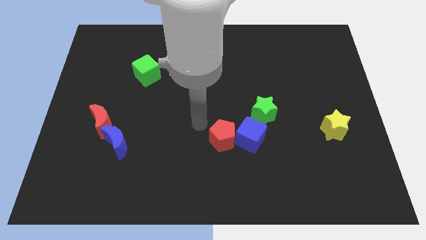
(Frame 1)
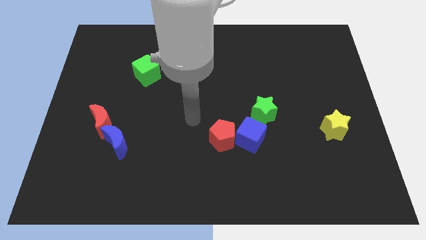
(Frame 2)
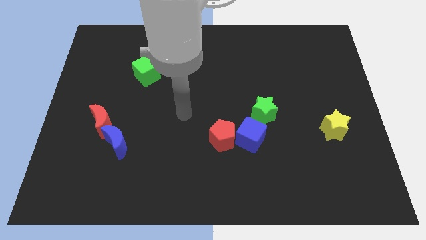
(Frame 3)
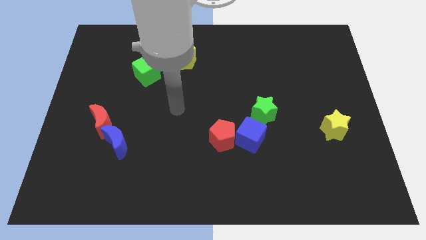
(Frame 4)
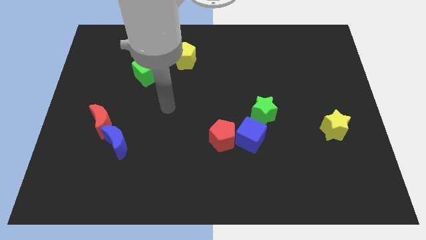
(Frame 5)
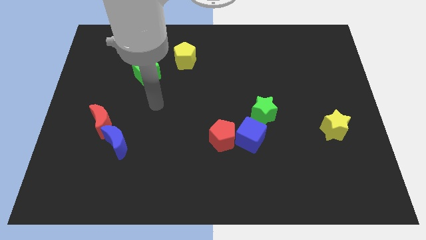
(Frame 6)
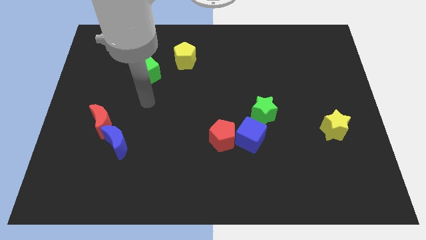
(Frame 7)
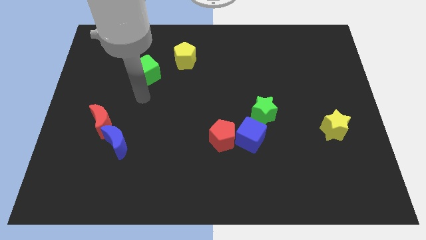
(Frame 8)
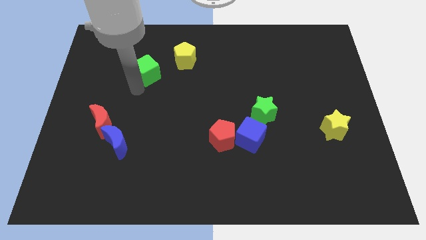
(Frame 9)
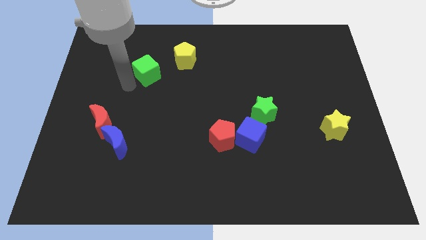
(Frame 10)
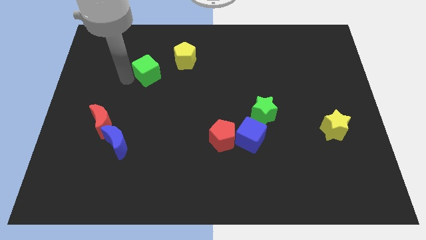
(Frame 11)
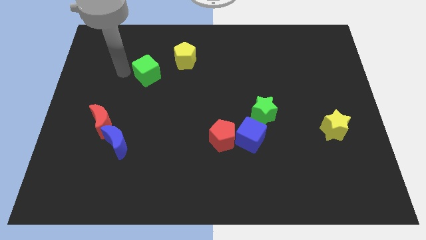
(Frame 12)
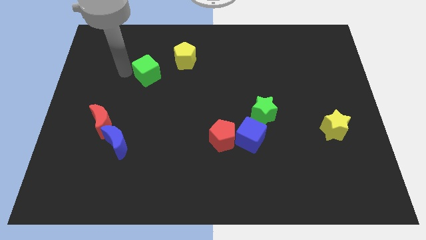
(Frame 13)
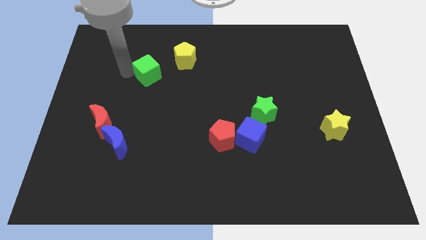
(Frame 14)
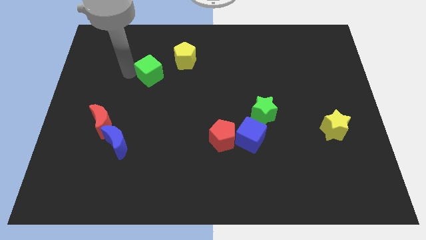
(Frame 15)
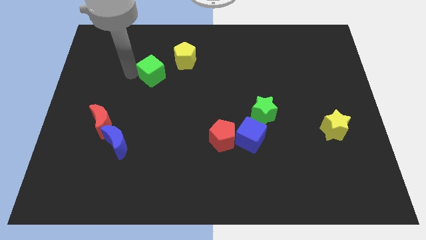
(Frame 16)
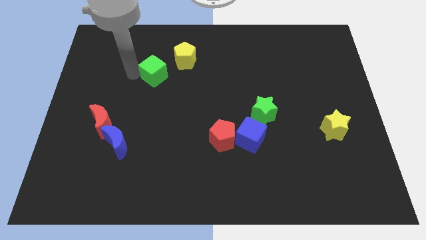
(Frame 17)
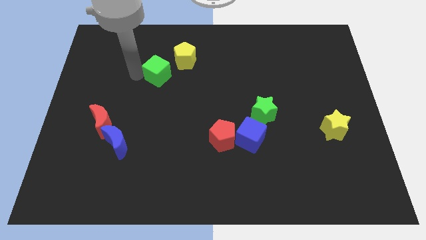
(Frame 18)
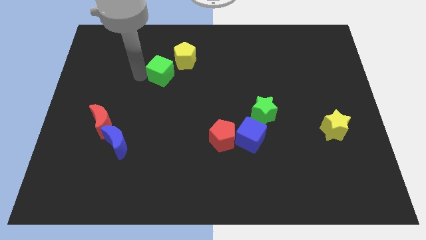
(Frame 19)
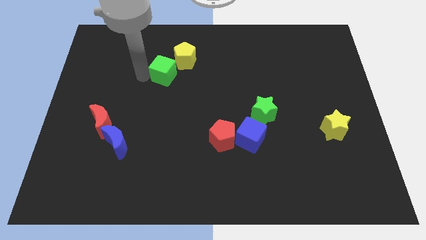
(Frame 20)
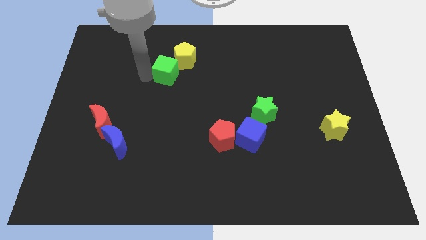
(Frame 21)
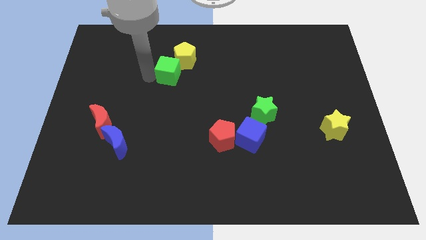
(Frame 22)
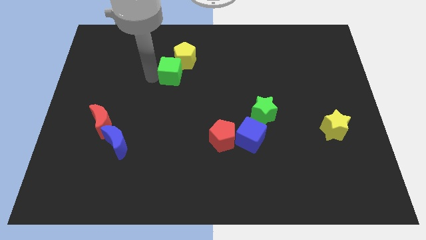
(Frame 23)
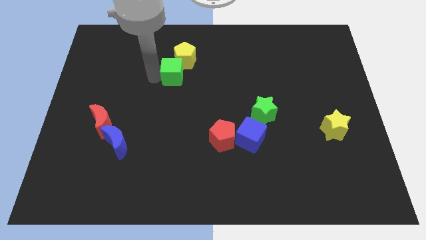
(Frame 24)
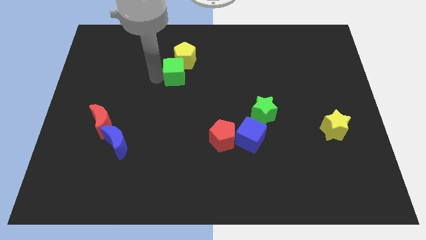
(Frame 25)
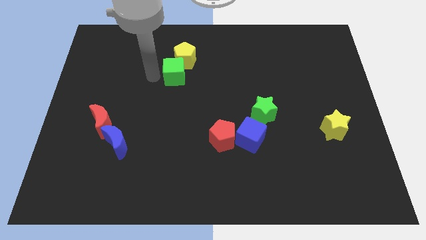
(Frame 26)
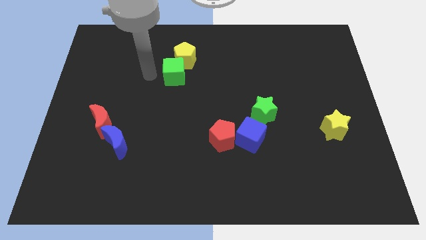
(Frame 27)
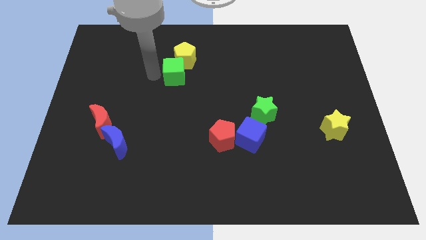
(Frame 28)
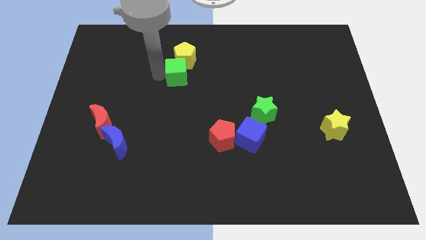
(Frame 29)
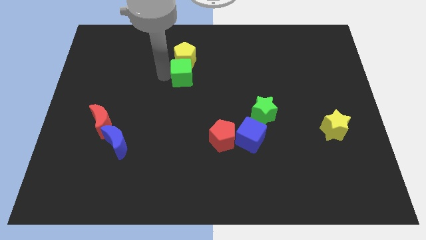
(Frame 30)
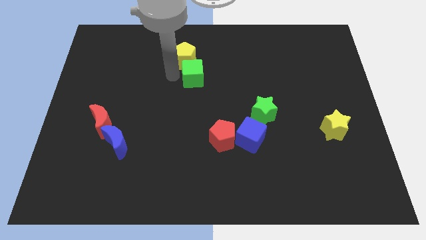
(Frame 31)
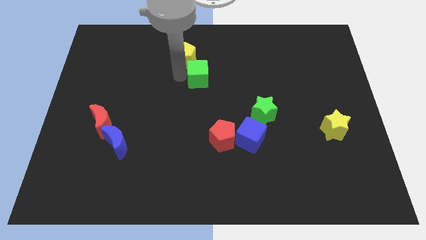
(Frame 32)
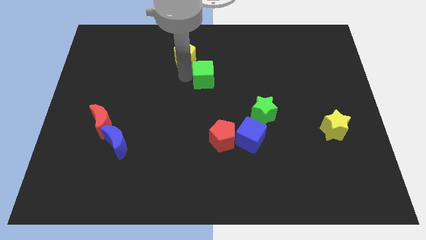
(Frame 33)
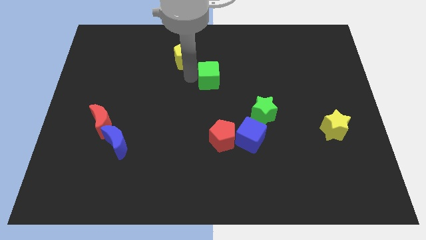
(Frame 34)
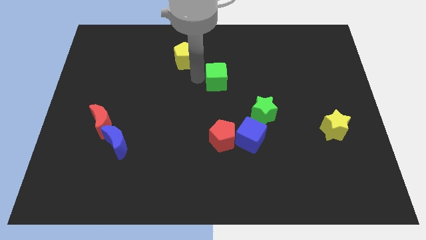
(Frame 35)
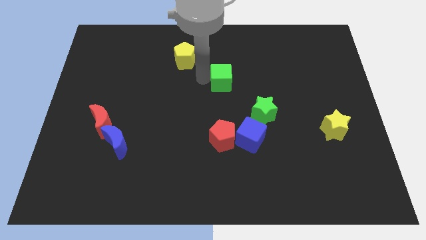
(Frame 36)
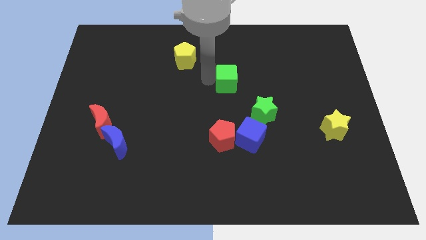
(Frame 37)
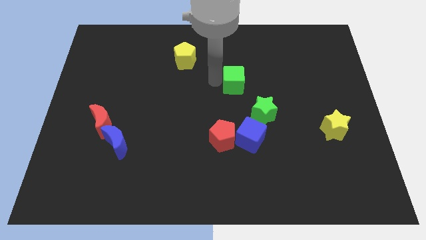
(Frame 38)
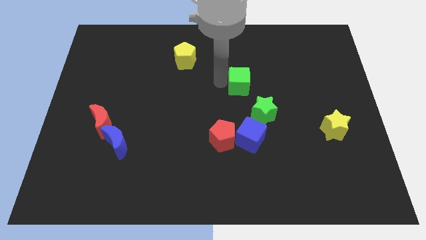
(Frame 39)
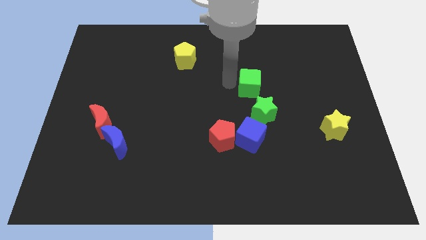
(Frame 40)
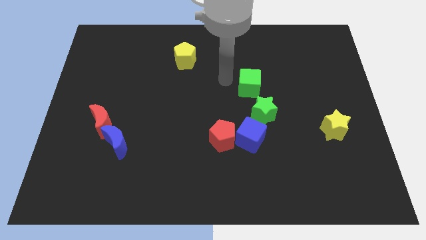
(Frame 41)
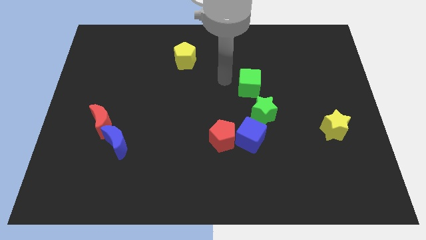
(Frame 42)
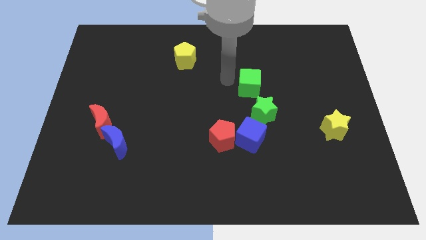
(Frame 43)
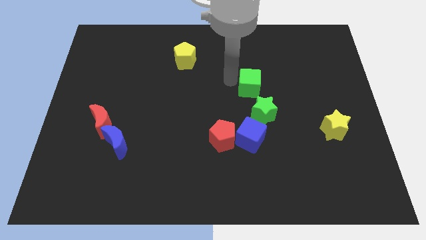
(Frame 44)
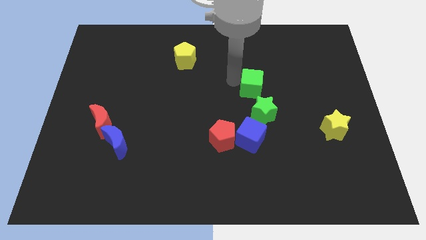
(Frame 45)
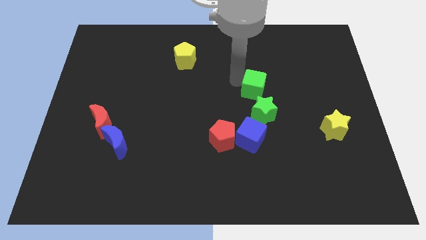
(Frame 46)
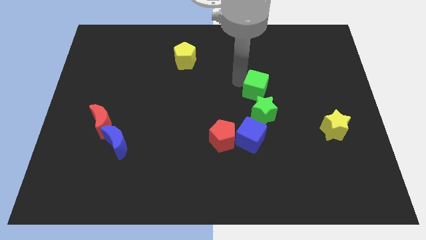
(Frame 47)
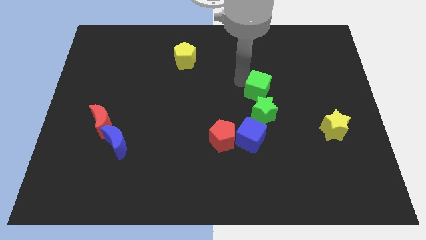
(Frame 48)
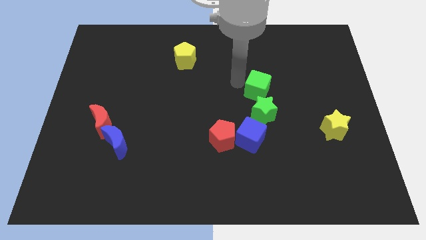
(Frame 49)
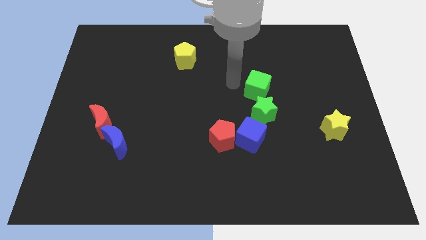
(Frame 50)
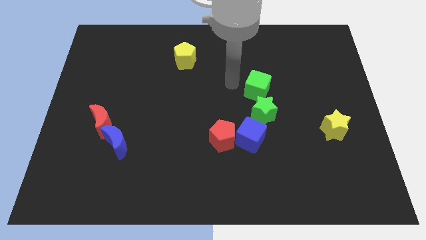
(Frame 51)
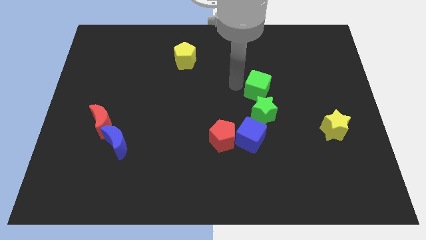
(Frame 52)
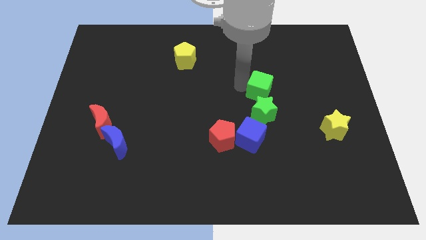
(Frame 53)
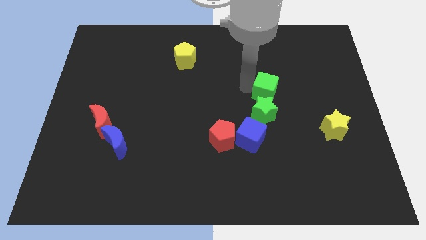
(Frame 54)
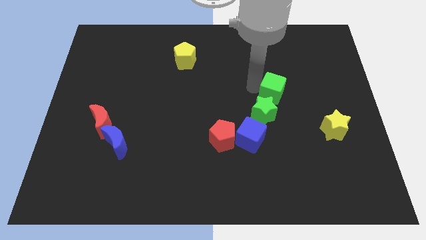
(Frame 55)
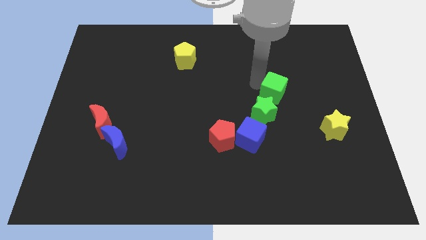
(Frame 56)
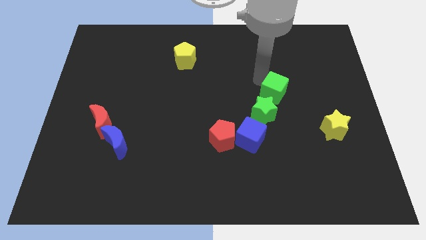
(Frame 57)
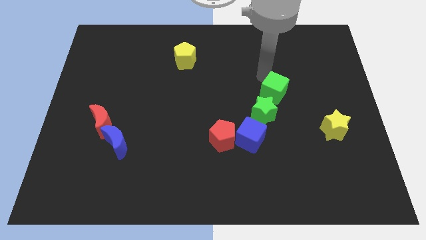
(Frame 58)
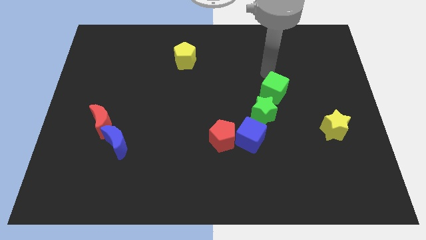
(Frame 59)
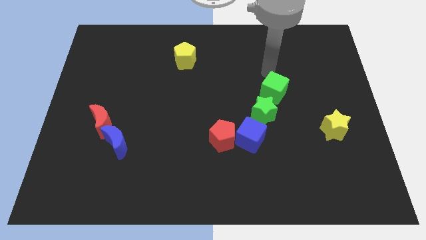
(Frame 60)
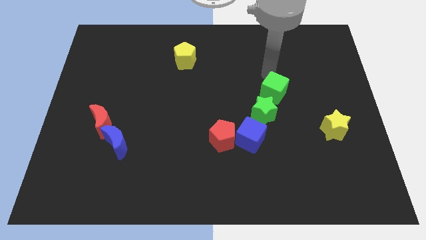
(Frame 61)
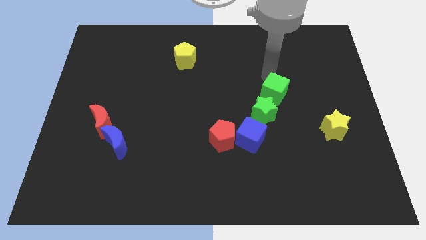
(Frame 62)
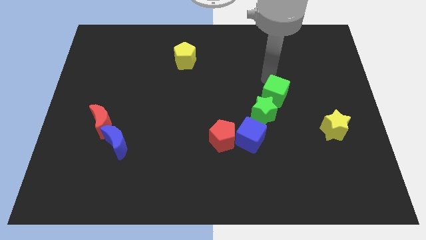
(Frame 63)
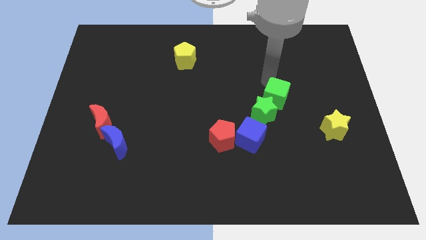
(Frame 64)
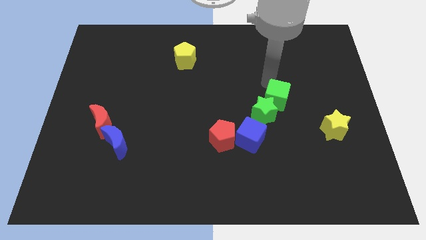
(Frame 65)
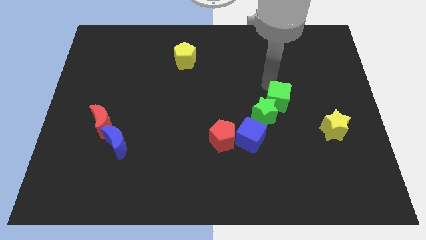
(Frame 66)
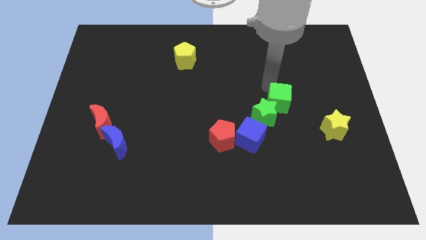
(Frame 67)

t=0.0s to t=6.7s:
slide the green cube to the top right of the blue cube

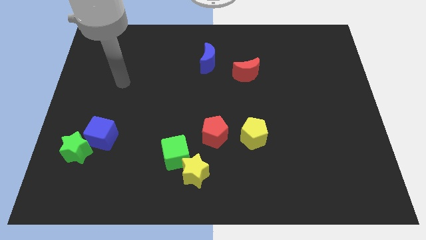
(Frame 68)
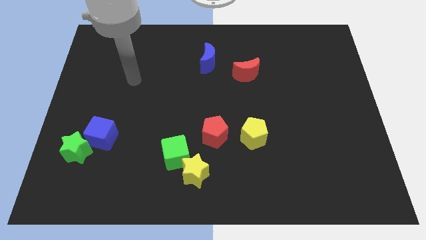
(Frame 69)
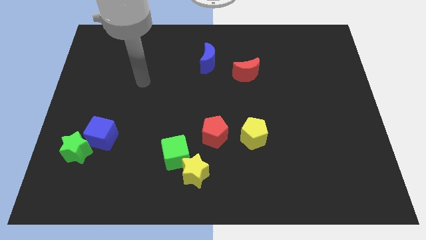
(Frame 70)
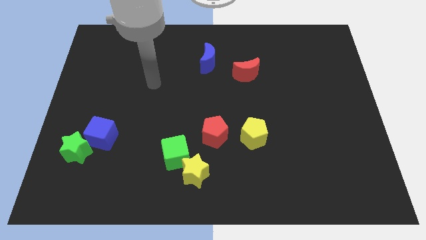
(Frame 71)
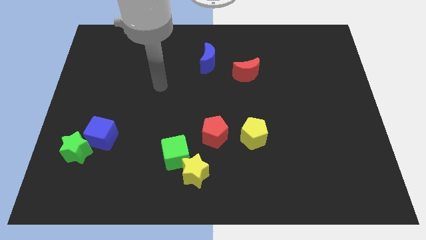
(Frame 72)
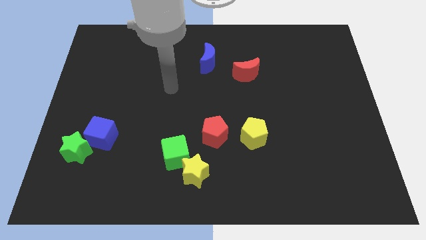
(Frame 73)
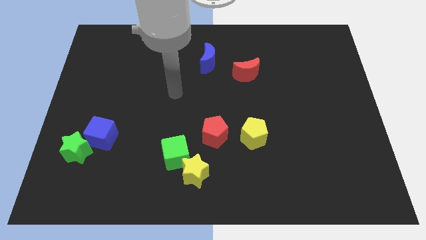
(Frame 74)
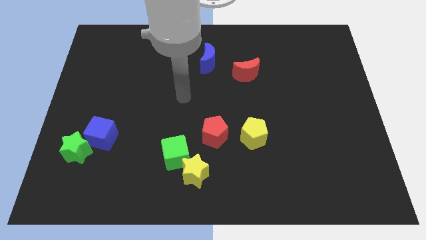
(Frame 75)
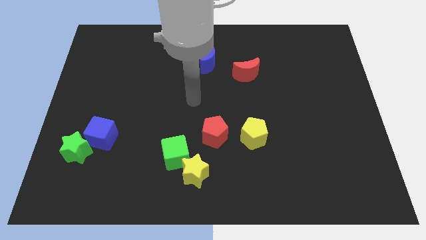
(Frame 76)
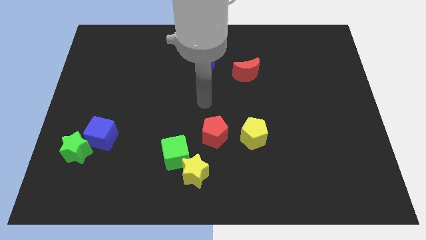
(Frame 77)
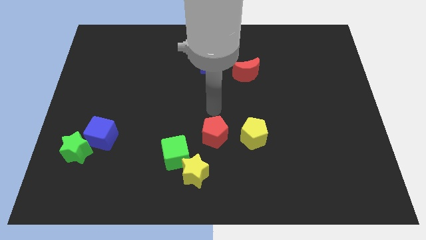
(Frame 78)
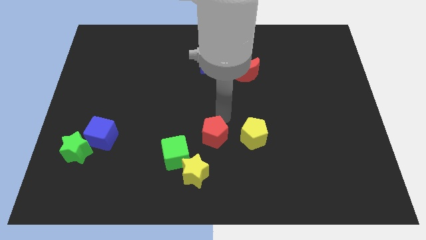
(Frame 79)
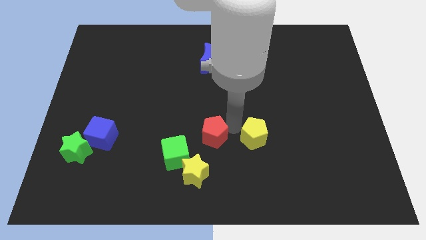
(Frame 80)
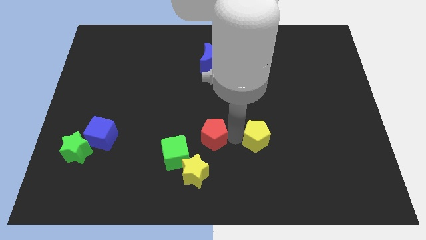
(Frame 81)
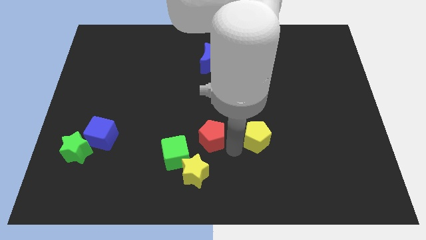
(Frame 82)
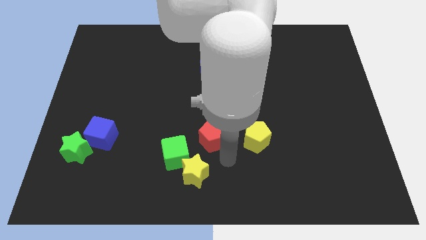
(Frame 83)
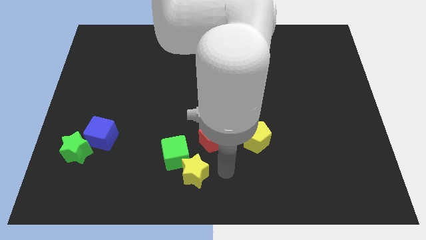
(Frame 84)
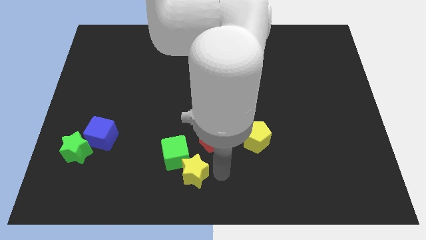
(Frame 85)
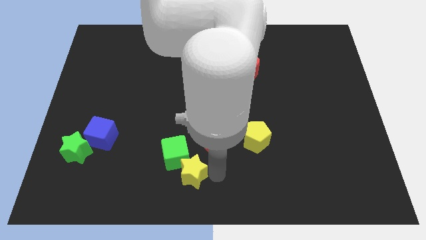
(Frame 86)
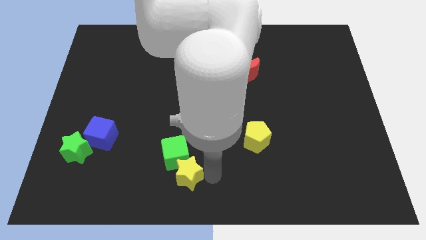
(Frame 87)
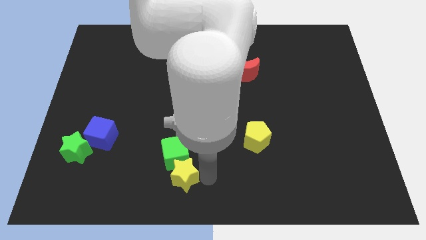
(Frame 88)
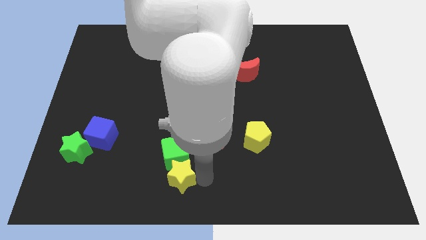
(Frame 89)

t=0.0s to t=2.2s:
push the yellow star to the bottom left of the green cube
